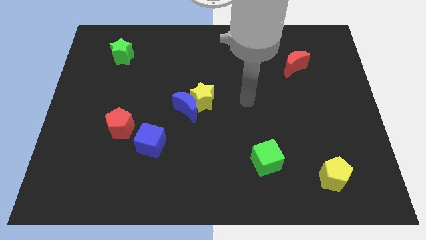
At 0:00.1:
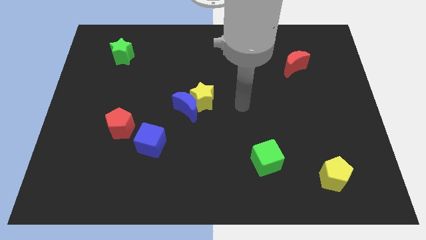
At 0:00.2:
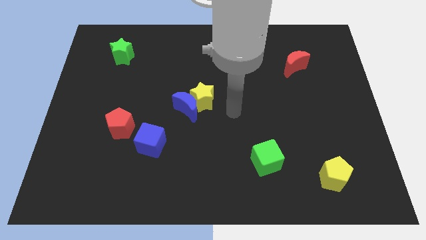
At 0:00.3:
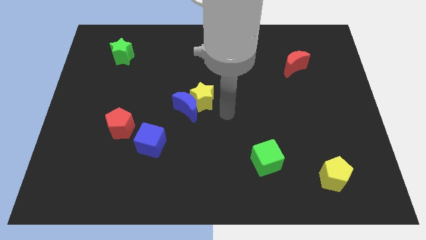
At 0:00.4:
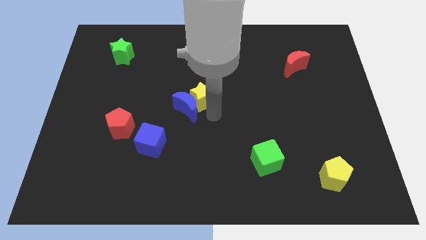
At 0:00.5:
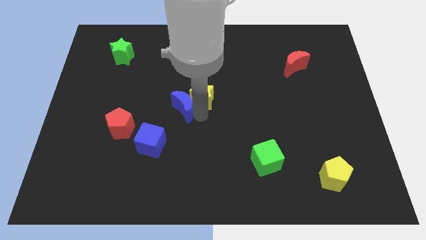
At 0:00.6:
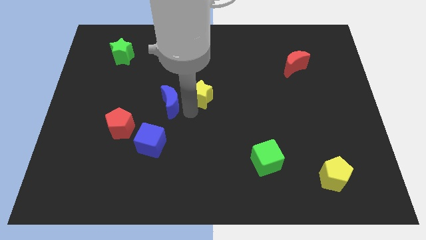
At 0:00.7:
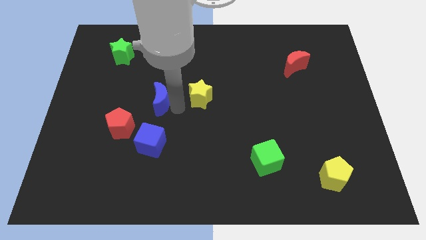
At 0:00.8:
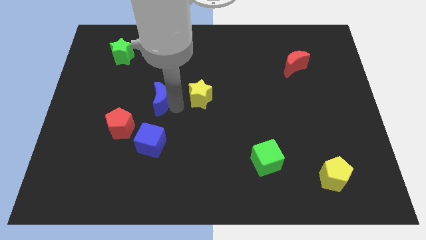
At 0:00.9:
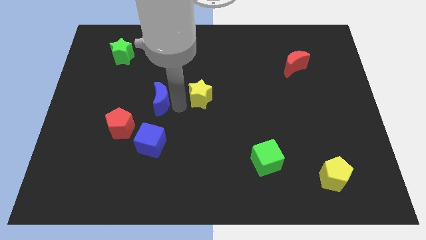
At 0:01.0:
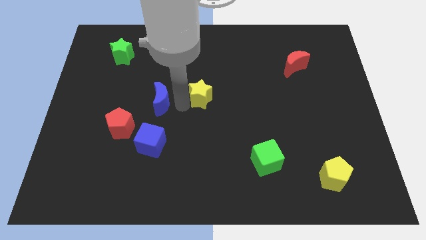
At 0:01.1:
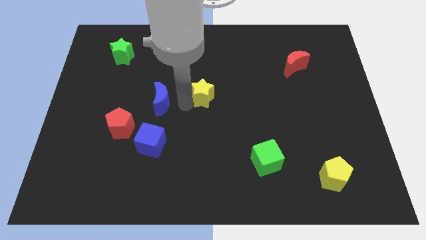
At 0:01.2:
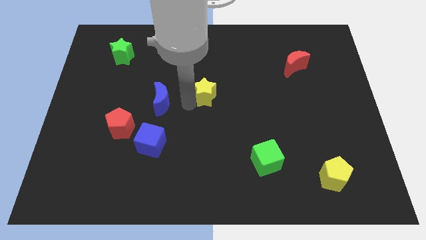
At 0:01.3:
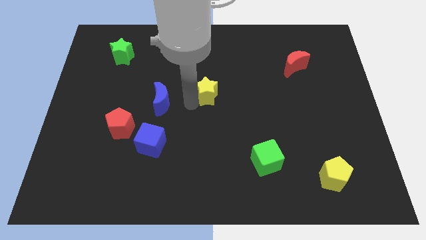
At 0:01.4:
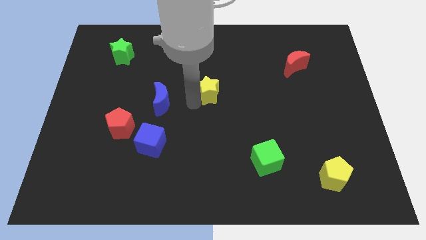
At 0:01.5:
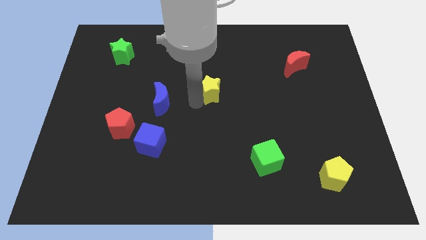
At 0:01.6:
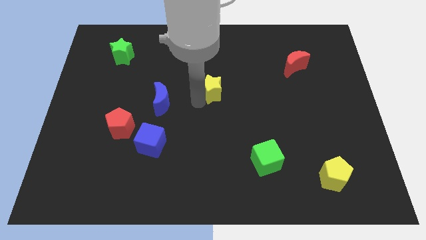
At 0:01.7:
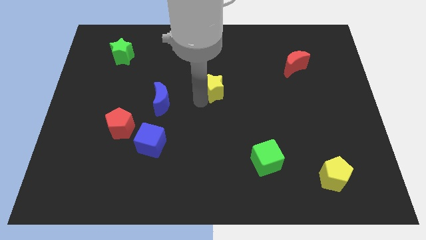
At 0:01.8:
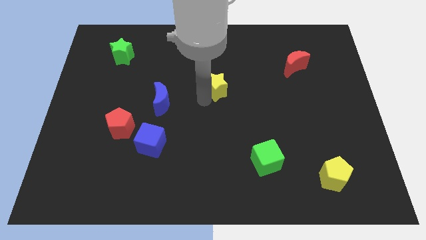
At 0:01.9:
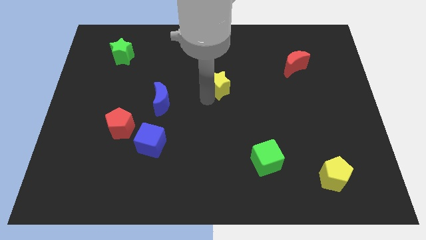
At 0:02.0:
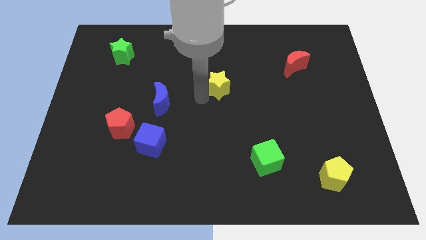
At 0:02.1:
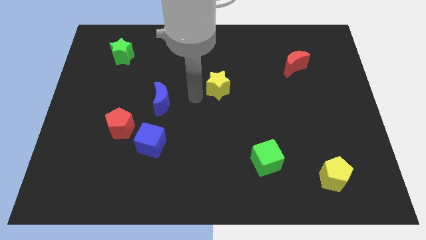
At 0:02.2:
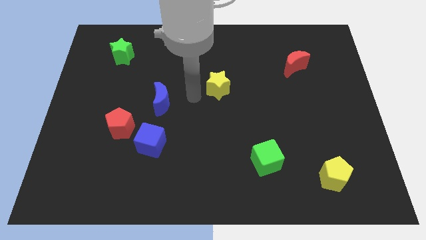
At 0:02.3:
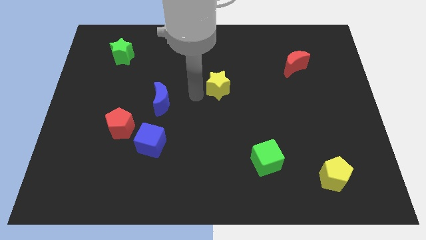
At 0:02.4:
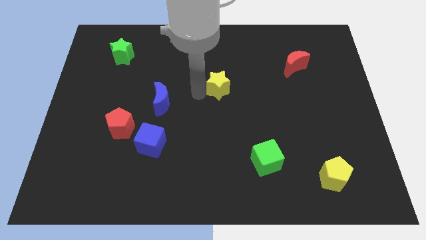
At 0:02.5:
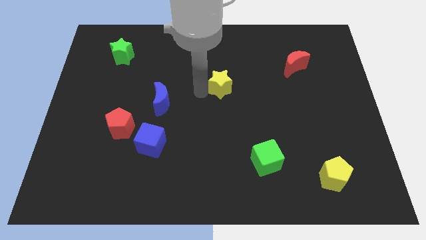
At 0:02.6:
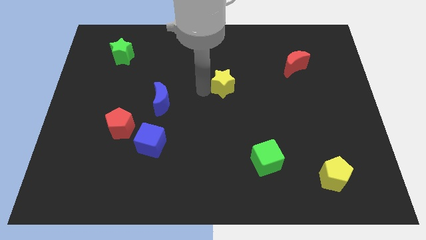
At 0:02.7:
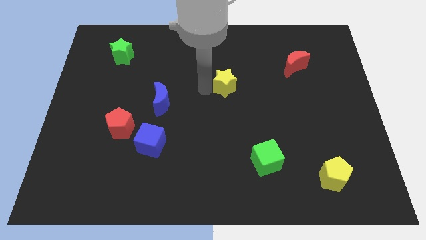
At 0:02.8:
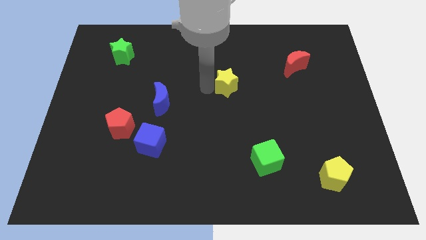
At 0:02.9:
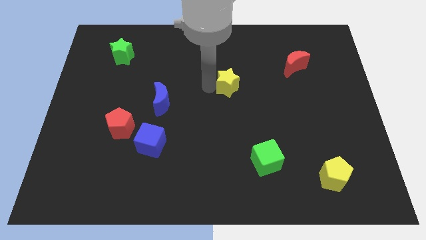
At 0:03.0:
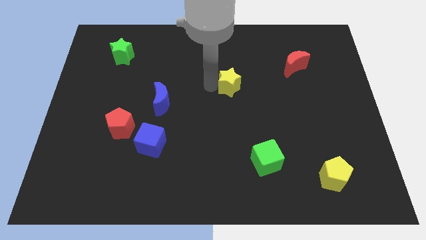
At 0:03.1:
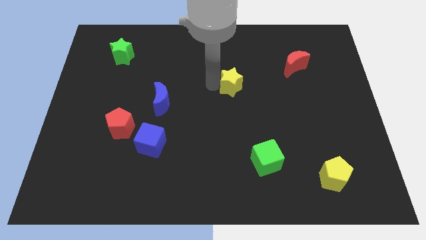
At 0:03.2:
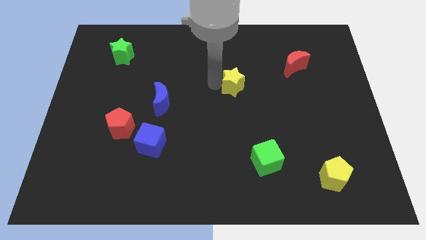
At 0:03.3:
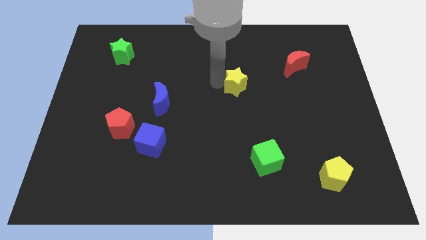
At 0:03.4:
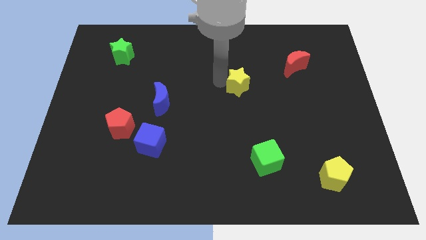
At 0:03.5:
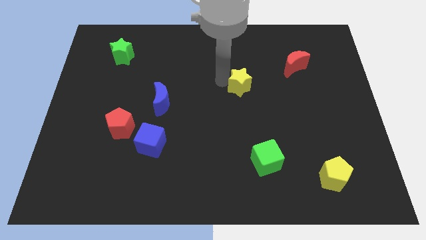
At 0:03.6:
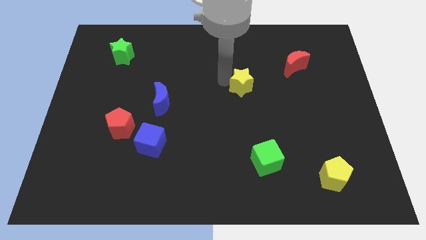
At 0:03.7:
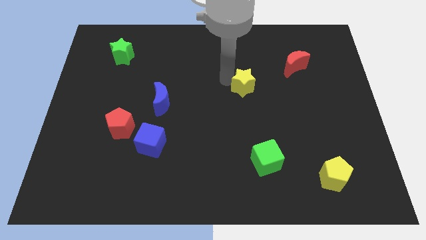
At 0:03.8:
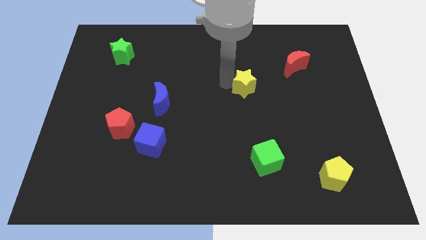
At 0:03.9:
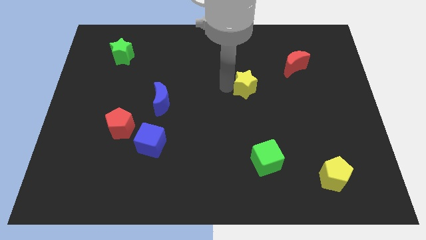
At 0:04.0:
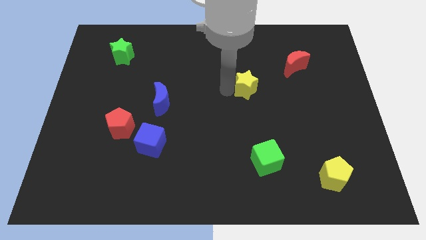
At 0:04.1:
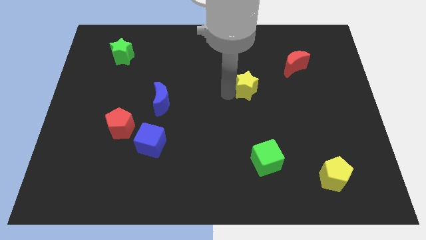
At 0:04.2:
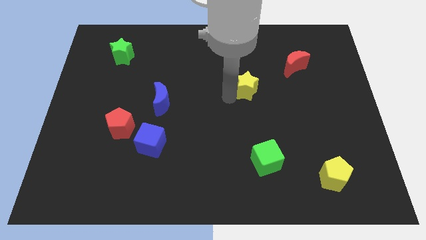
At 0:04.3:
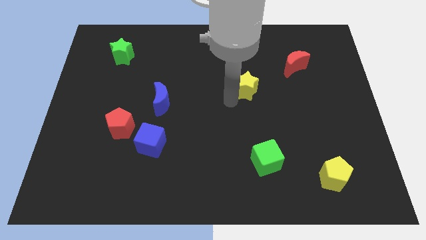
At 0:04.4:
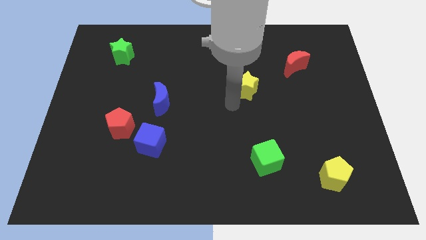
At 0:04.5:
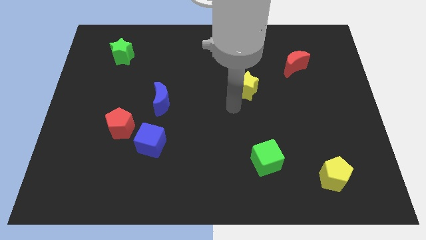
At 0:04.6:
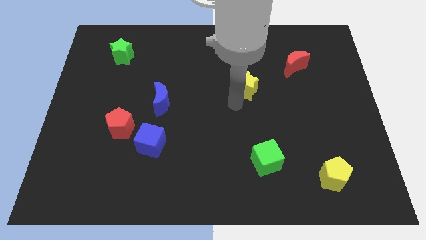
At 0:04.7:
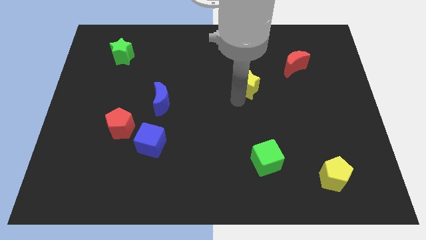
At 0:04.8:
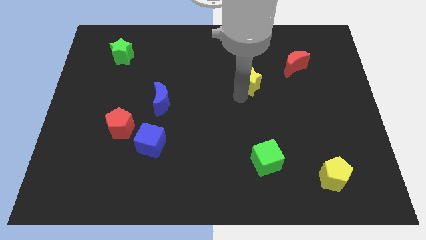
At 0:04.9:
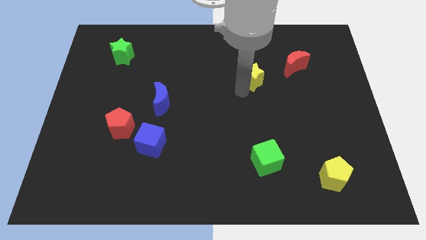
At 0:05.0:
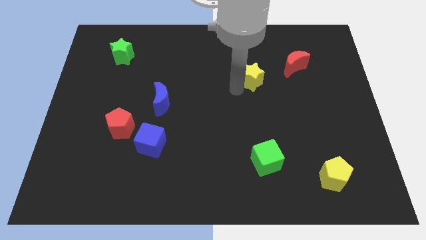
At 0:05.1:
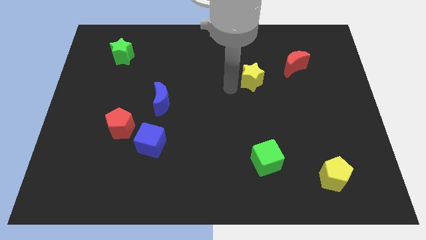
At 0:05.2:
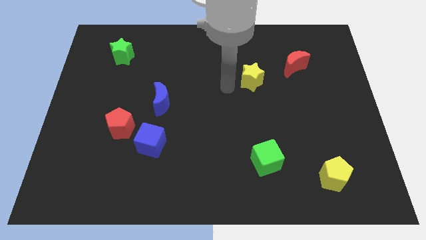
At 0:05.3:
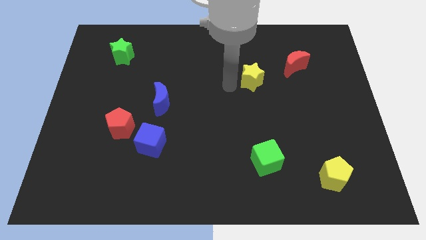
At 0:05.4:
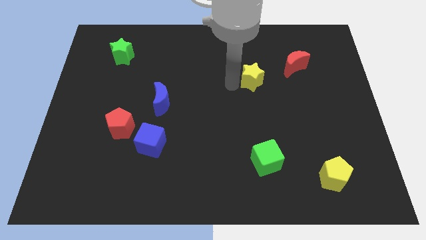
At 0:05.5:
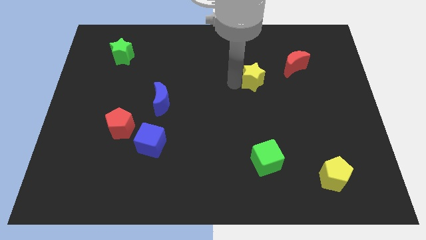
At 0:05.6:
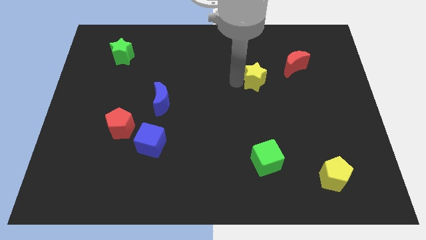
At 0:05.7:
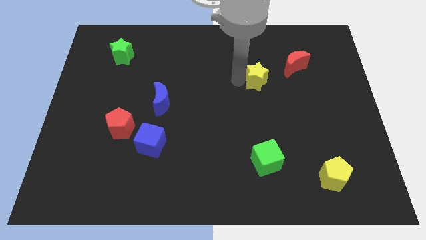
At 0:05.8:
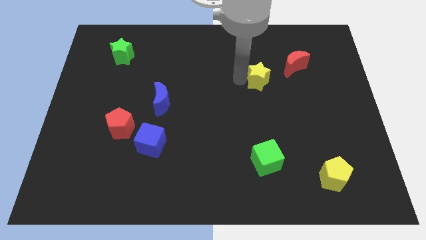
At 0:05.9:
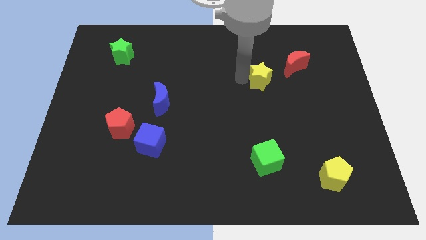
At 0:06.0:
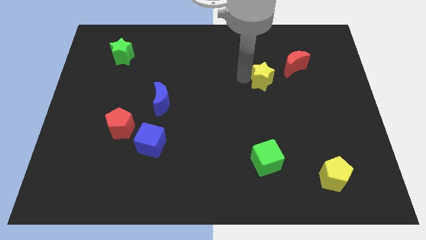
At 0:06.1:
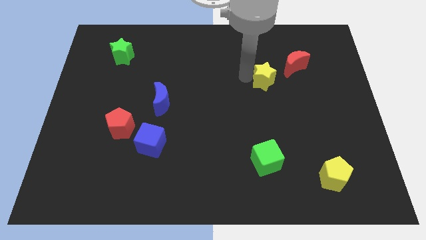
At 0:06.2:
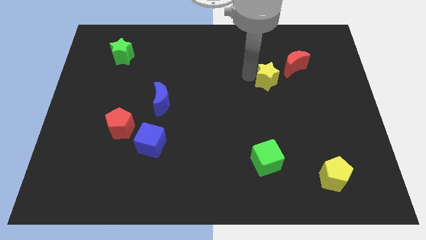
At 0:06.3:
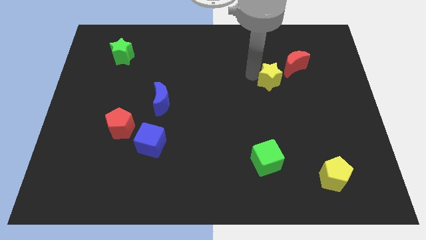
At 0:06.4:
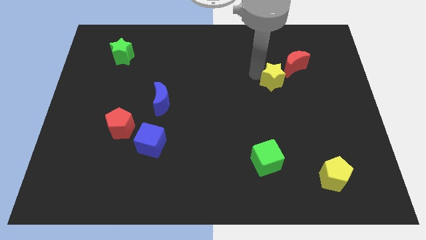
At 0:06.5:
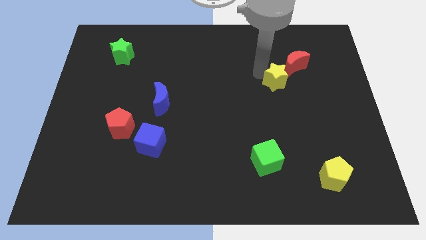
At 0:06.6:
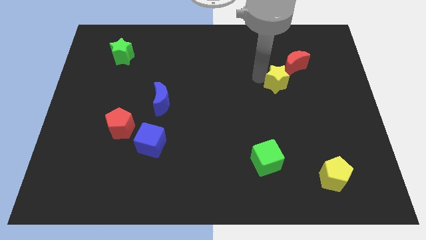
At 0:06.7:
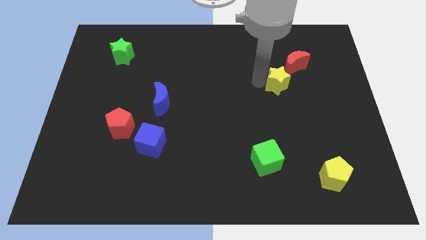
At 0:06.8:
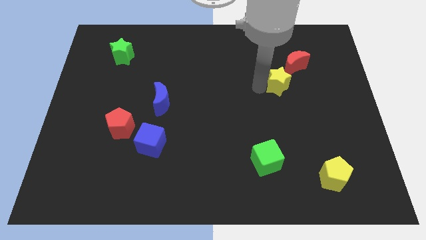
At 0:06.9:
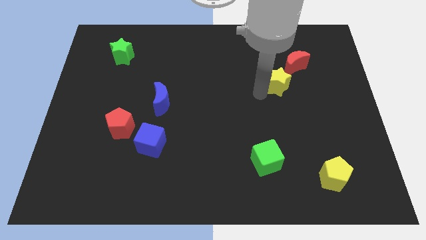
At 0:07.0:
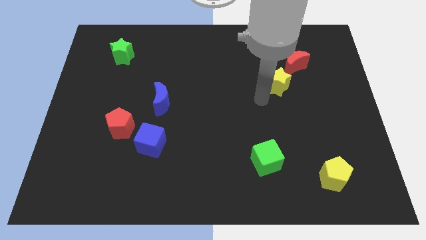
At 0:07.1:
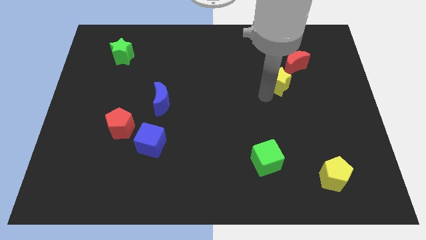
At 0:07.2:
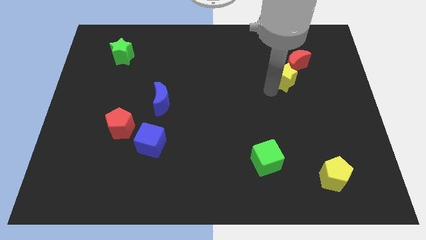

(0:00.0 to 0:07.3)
push the yellow star towards the red moon
